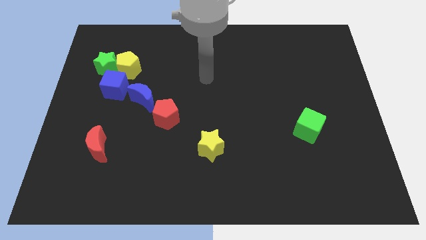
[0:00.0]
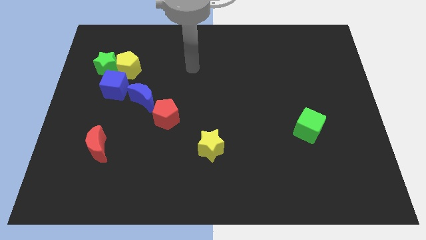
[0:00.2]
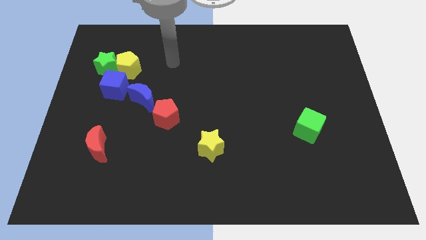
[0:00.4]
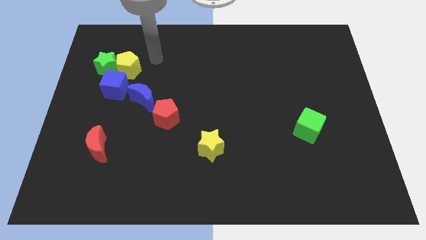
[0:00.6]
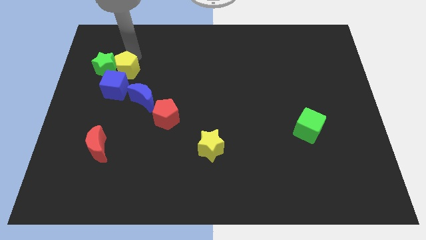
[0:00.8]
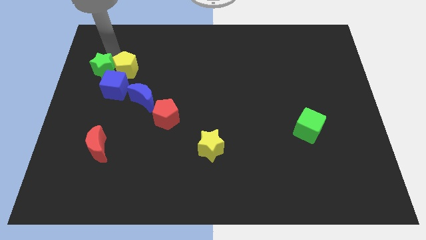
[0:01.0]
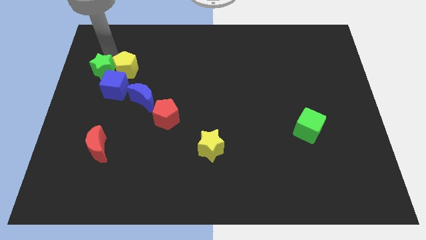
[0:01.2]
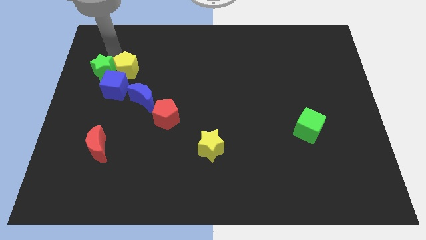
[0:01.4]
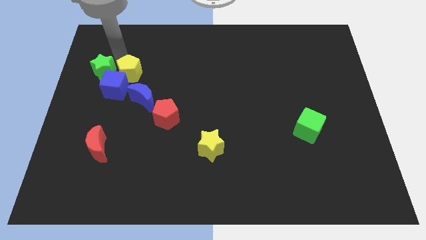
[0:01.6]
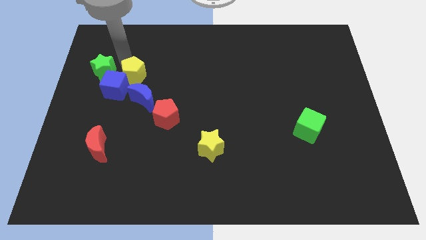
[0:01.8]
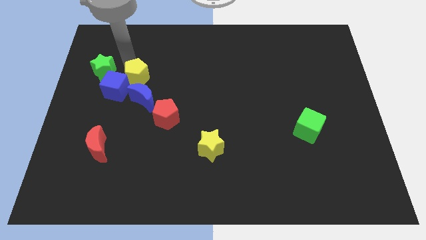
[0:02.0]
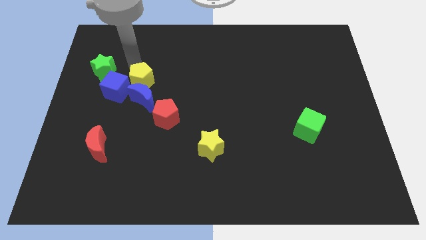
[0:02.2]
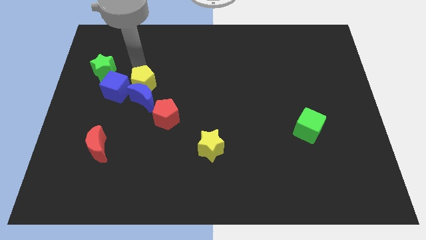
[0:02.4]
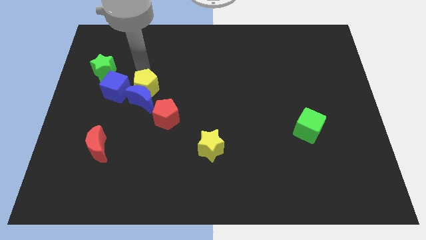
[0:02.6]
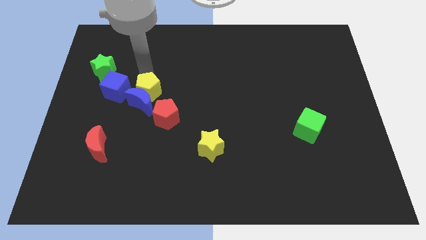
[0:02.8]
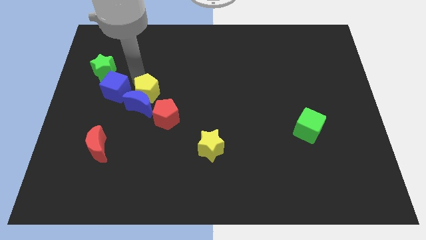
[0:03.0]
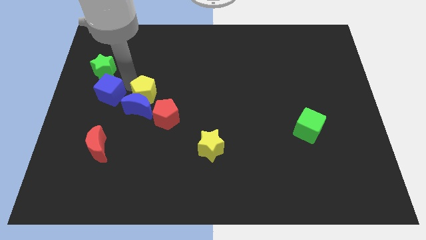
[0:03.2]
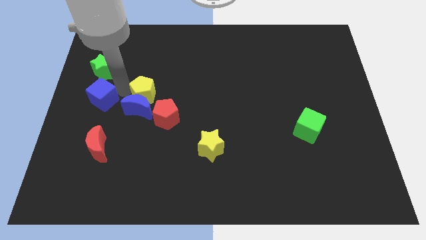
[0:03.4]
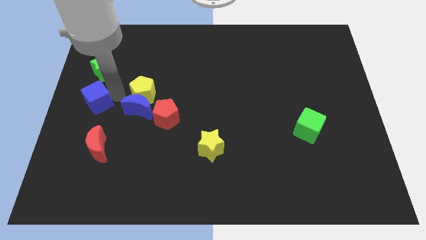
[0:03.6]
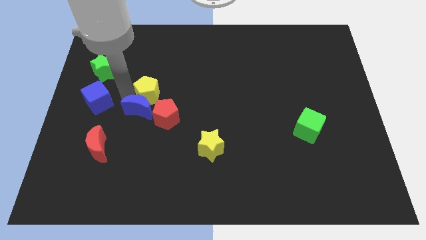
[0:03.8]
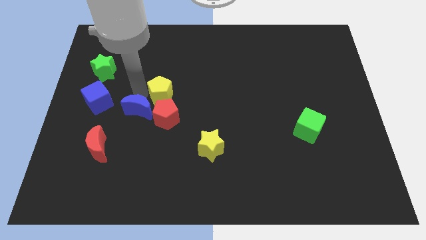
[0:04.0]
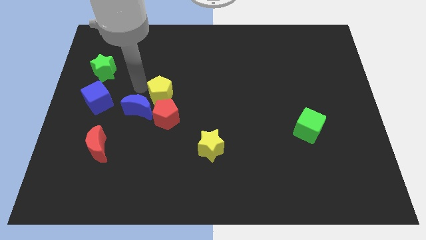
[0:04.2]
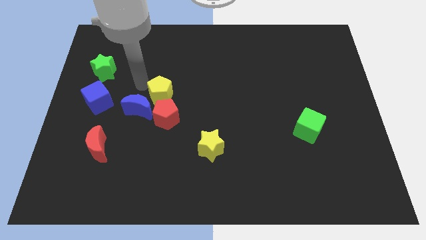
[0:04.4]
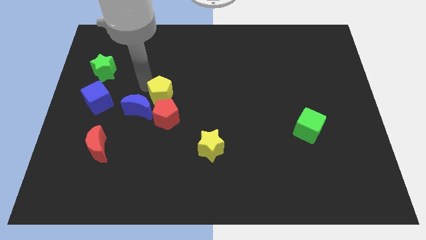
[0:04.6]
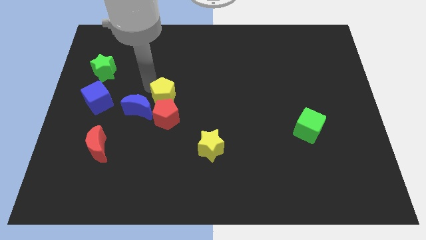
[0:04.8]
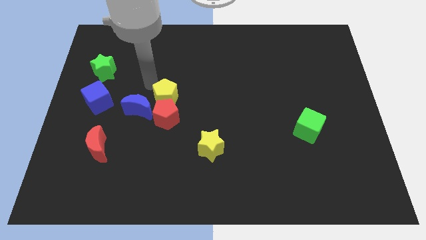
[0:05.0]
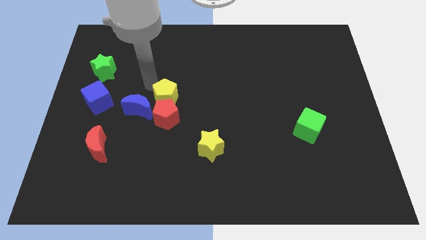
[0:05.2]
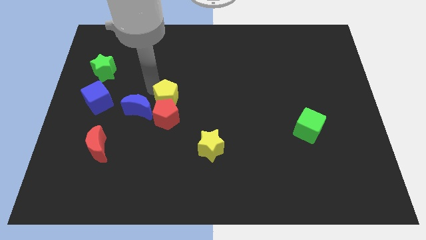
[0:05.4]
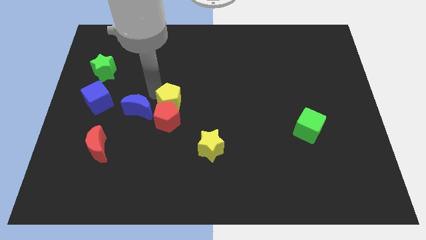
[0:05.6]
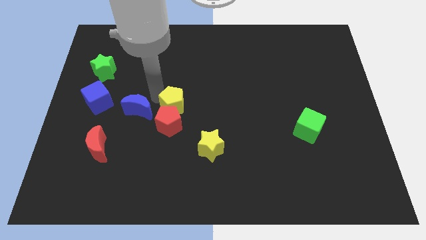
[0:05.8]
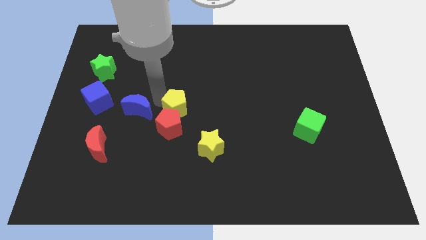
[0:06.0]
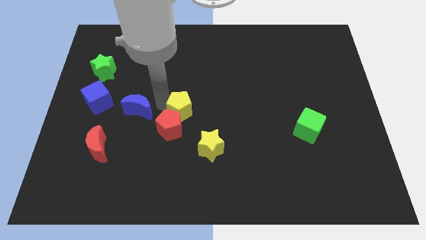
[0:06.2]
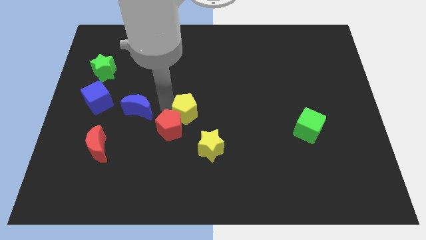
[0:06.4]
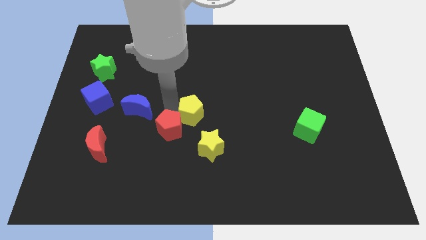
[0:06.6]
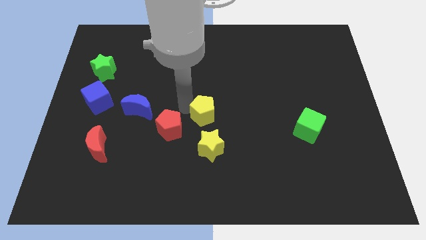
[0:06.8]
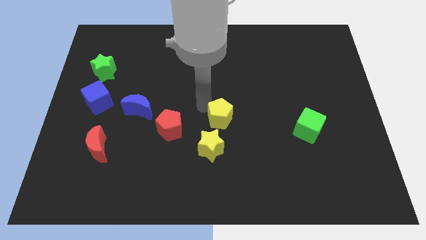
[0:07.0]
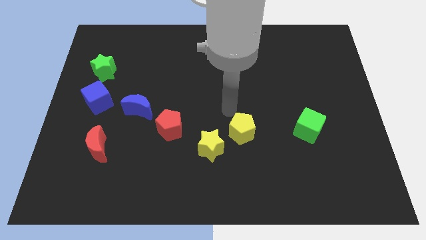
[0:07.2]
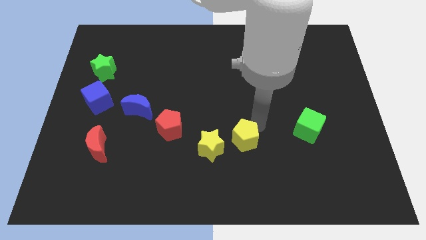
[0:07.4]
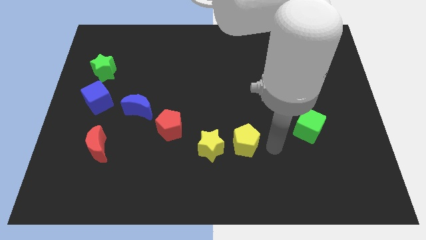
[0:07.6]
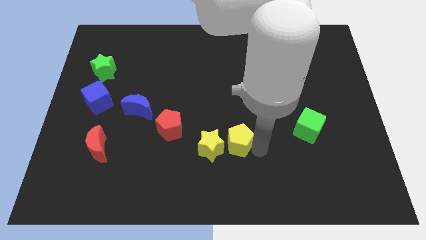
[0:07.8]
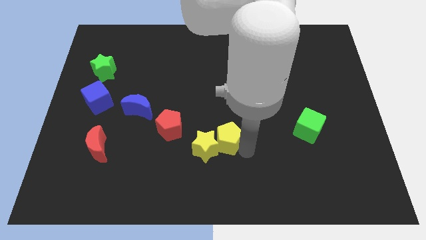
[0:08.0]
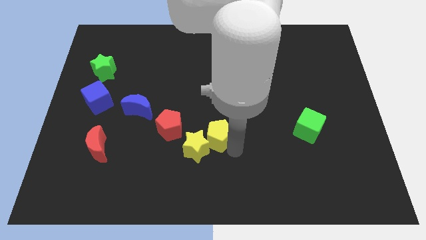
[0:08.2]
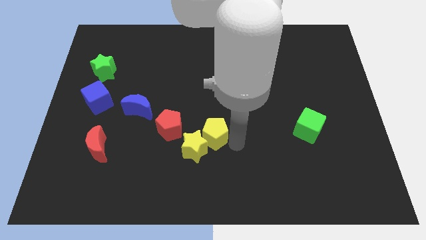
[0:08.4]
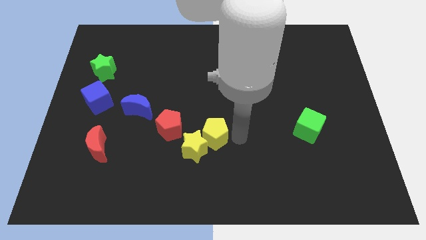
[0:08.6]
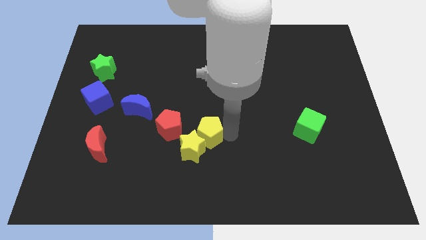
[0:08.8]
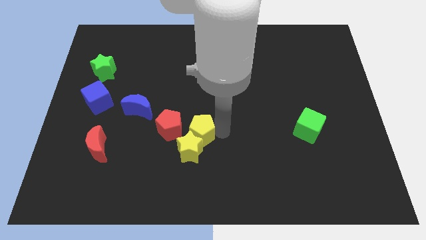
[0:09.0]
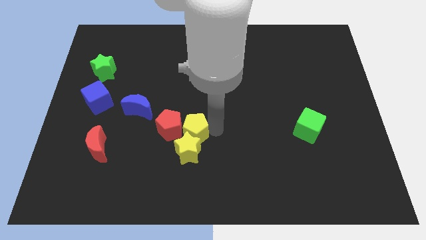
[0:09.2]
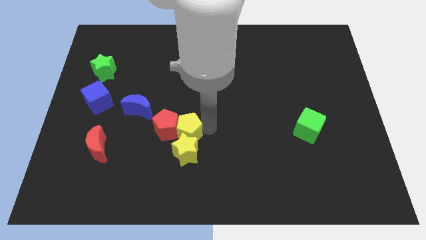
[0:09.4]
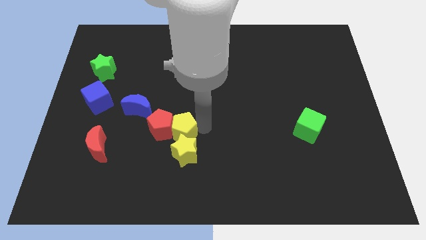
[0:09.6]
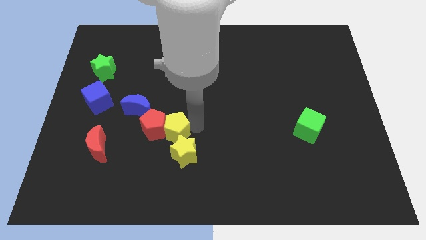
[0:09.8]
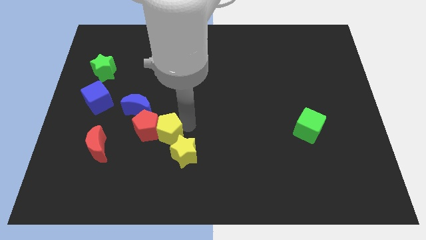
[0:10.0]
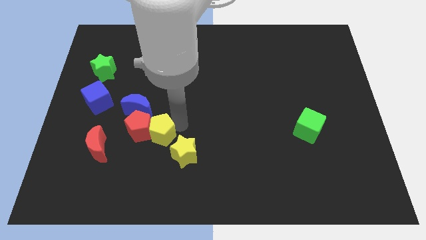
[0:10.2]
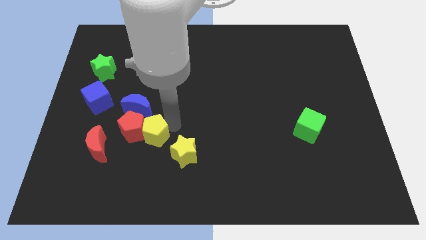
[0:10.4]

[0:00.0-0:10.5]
move the yellow pentagon below the blue moon

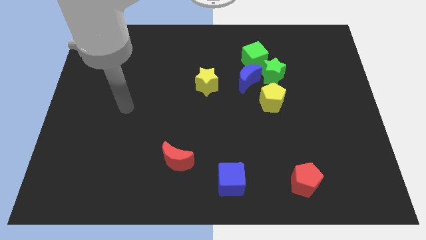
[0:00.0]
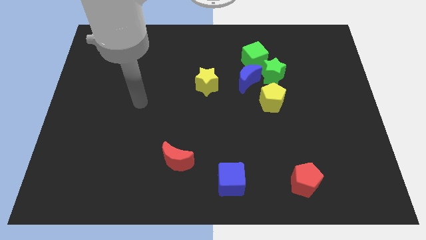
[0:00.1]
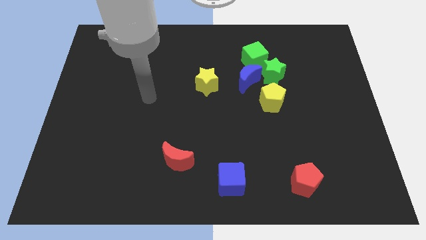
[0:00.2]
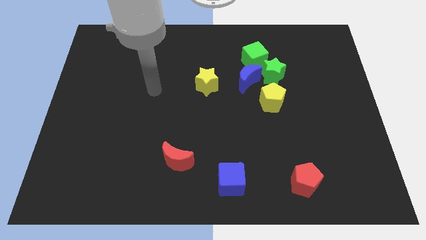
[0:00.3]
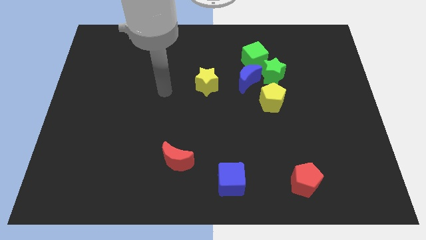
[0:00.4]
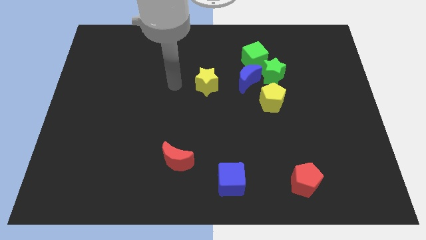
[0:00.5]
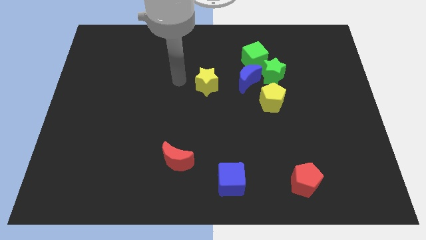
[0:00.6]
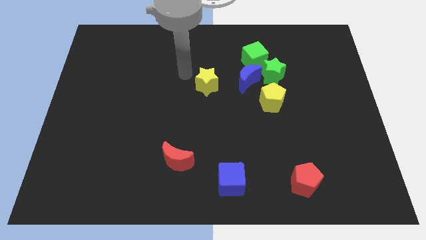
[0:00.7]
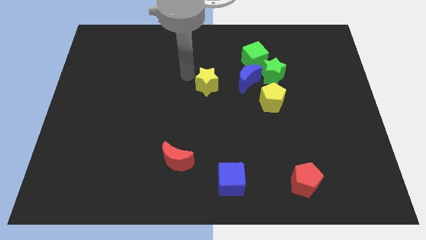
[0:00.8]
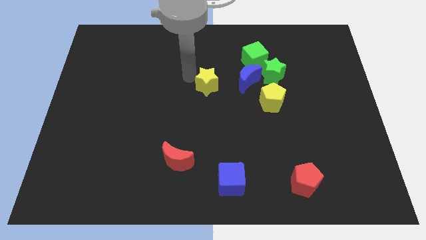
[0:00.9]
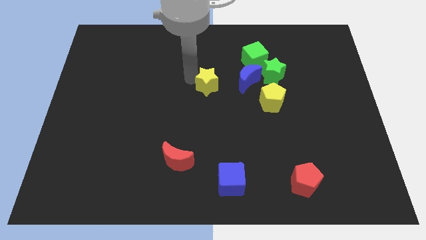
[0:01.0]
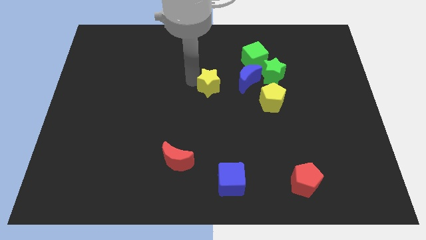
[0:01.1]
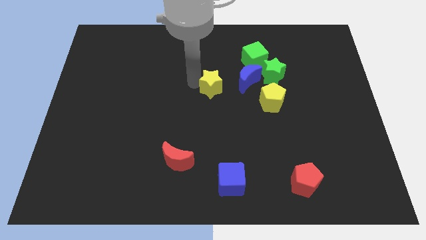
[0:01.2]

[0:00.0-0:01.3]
push the yellow star to the bottom left of the blue moon

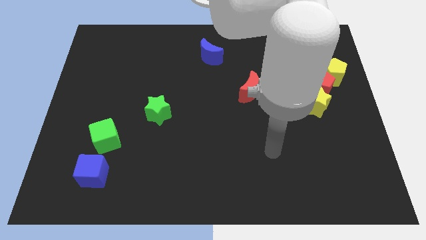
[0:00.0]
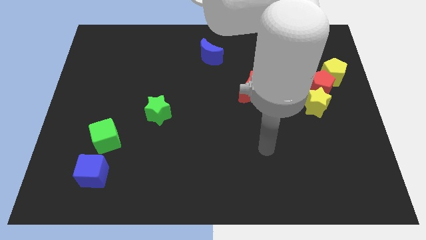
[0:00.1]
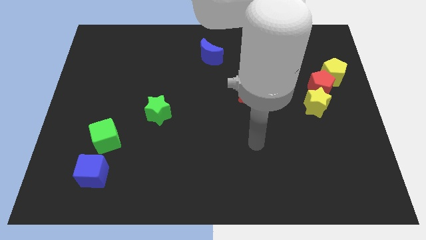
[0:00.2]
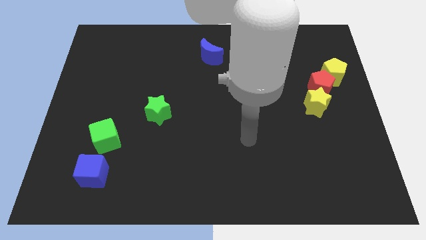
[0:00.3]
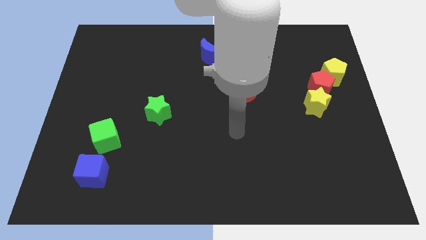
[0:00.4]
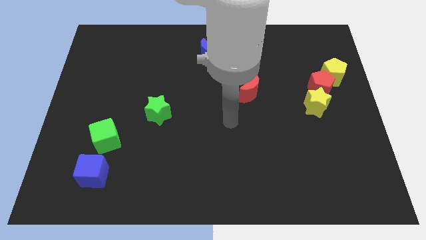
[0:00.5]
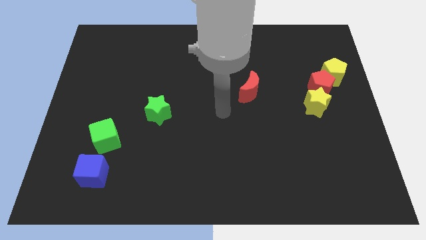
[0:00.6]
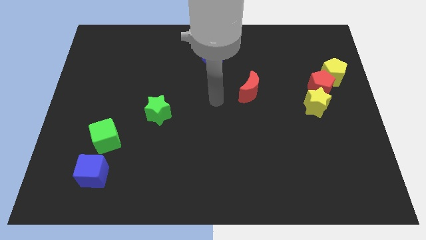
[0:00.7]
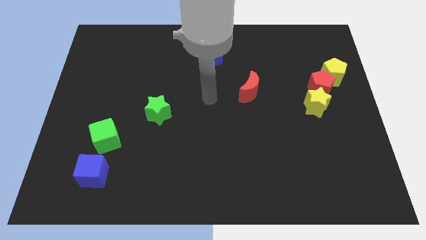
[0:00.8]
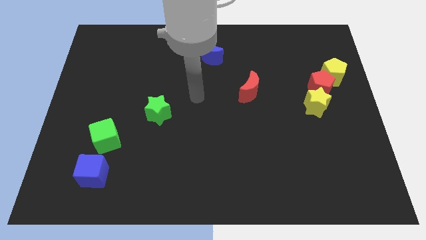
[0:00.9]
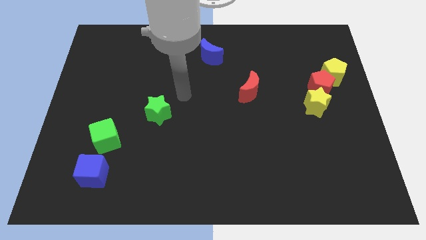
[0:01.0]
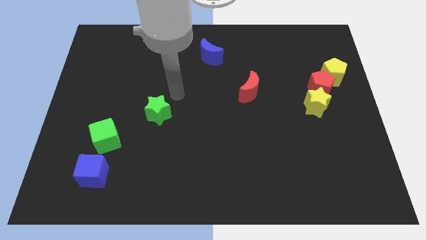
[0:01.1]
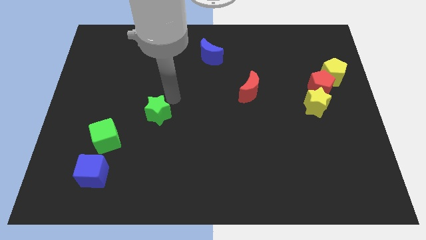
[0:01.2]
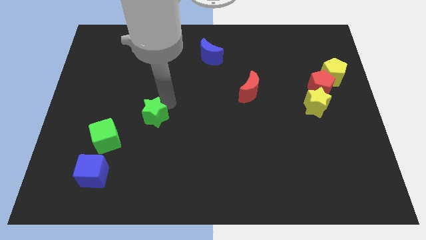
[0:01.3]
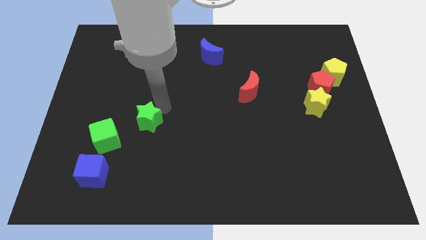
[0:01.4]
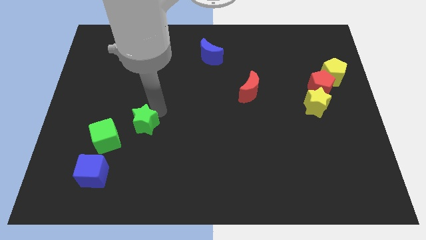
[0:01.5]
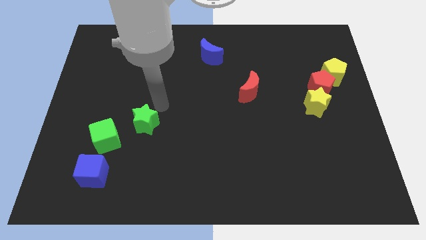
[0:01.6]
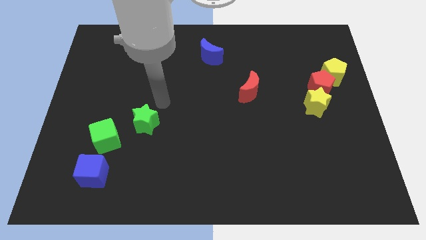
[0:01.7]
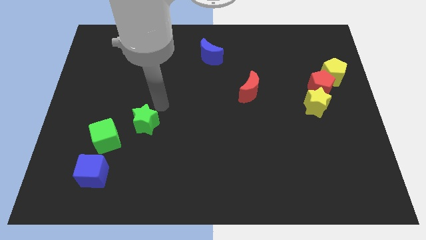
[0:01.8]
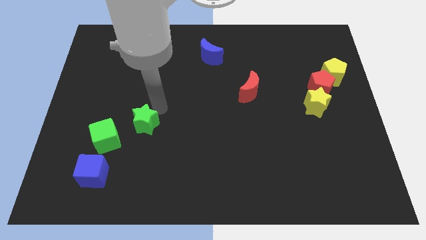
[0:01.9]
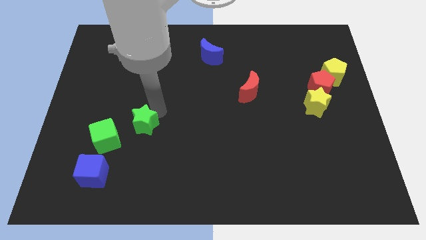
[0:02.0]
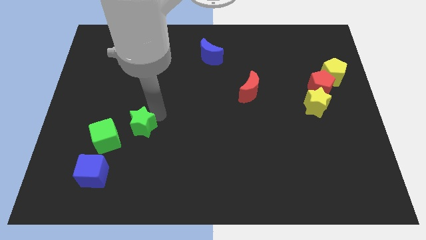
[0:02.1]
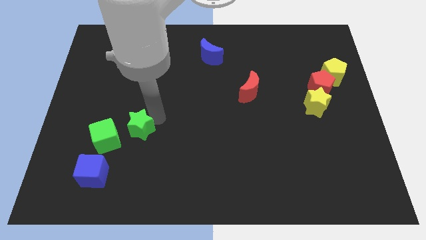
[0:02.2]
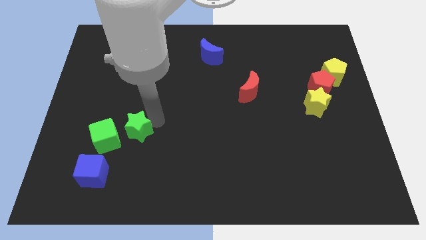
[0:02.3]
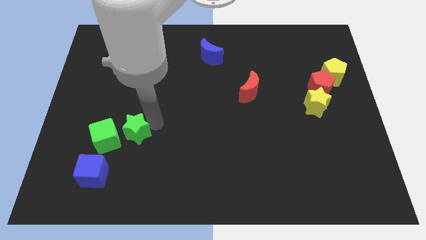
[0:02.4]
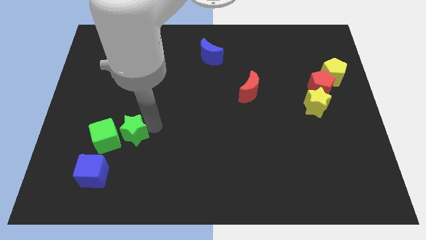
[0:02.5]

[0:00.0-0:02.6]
slide the green star diagonally up and to the right of the blue cube
